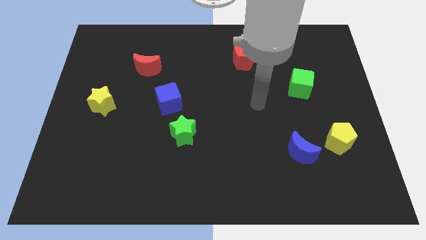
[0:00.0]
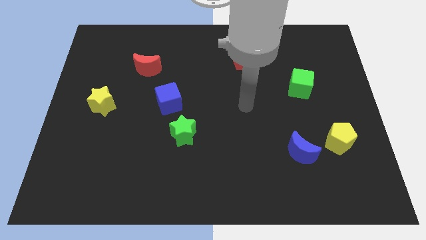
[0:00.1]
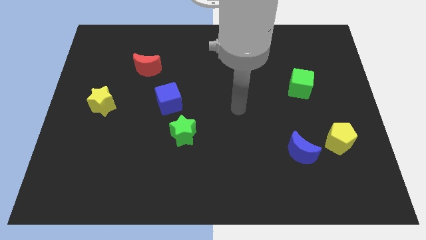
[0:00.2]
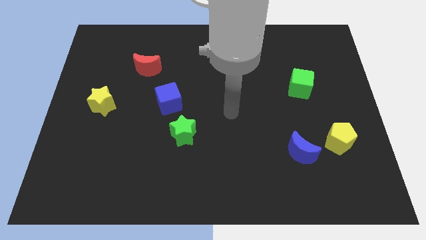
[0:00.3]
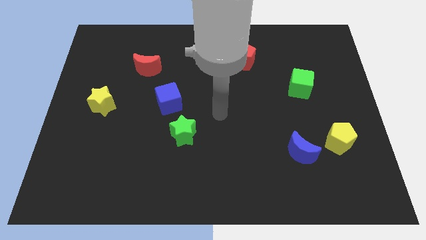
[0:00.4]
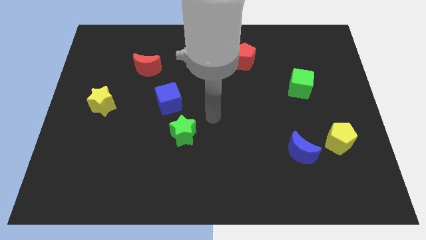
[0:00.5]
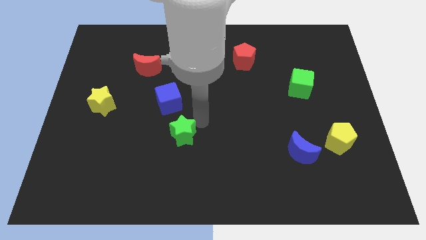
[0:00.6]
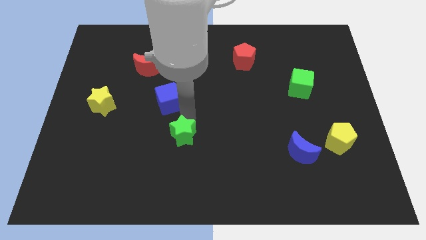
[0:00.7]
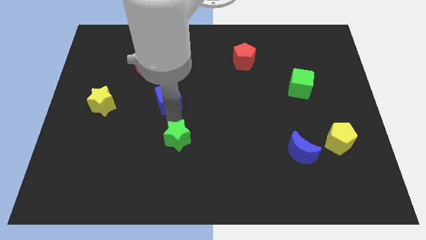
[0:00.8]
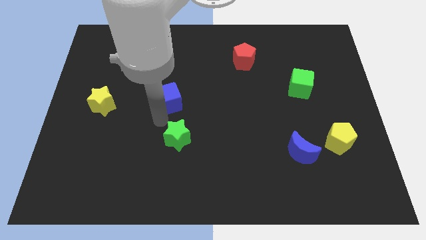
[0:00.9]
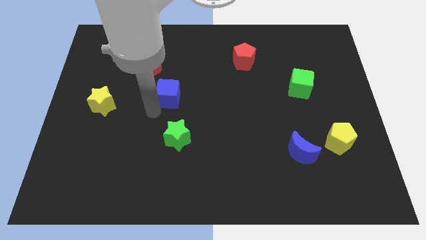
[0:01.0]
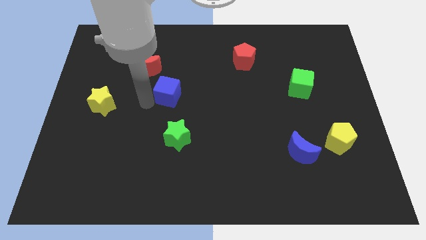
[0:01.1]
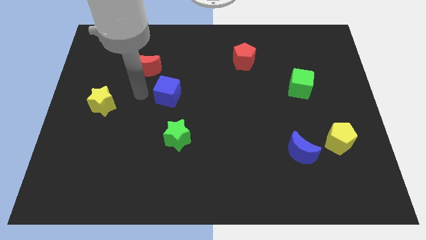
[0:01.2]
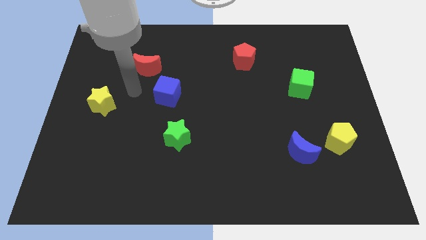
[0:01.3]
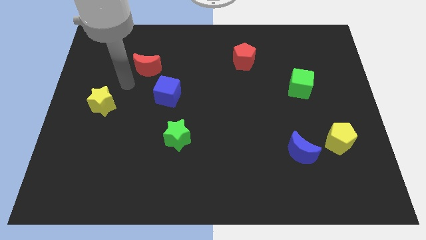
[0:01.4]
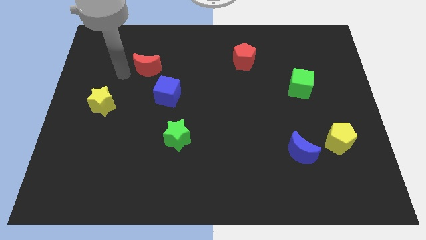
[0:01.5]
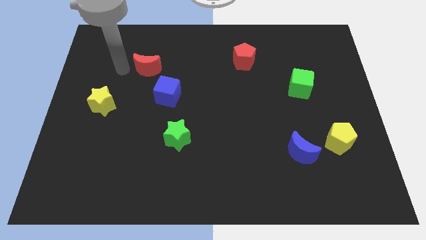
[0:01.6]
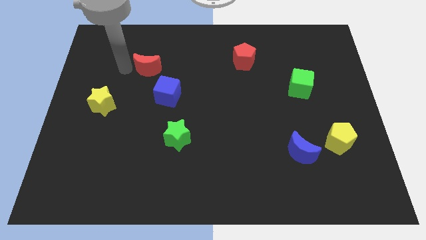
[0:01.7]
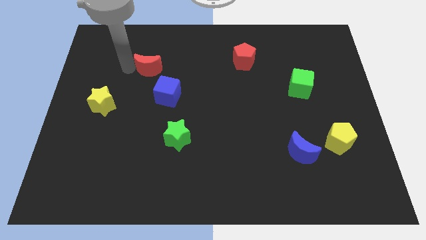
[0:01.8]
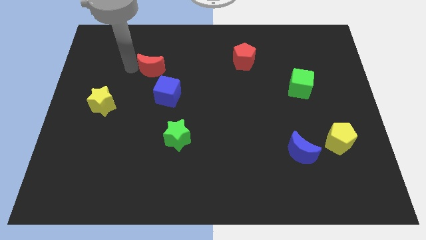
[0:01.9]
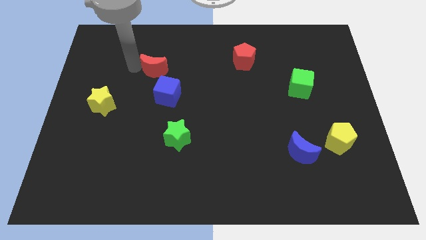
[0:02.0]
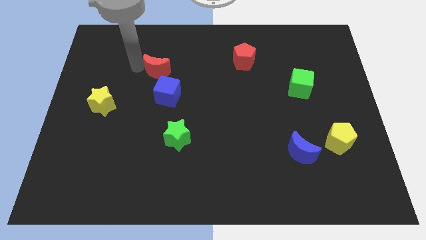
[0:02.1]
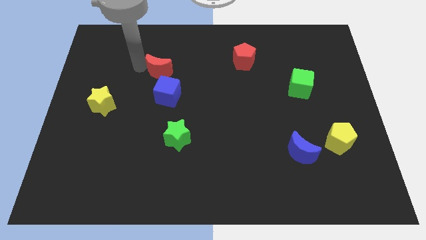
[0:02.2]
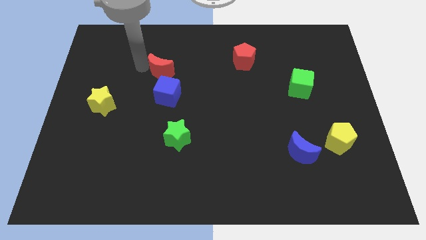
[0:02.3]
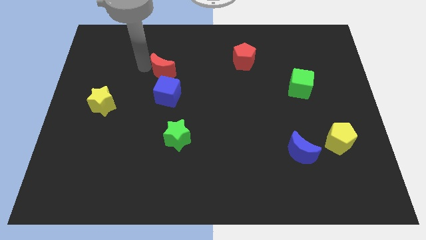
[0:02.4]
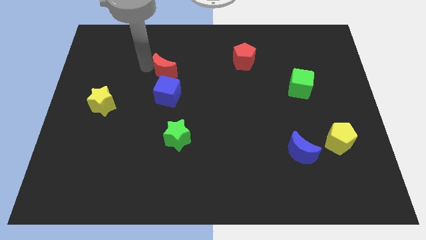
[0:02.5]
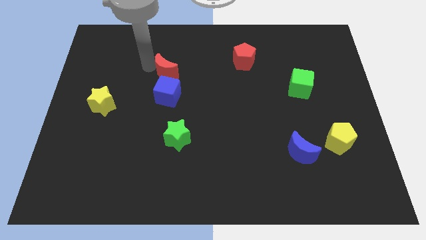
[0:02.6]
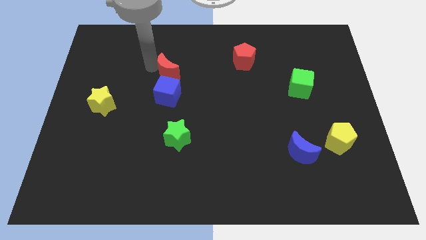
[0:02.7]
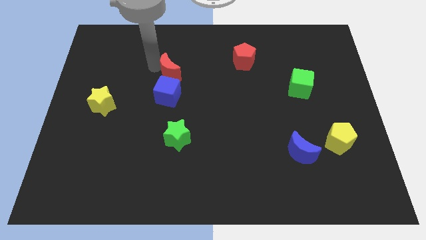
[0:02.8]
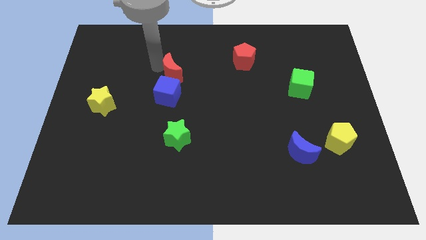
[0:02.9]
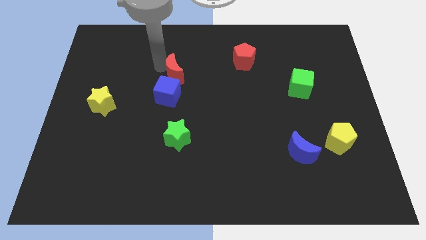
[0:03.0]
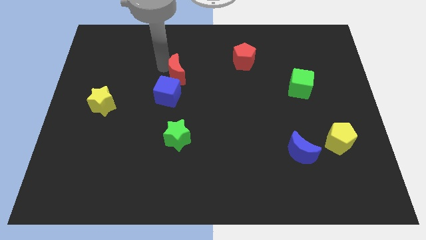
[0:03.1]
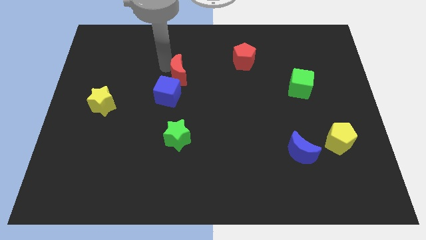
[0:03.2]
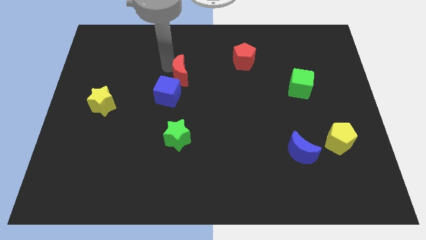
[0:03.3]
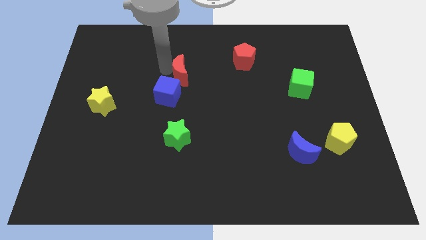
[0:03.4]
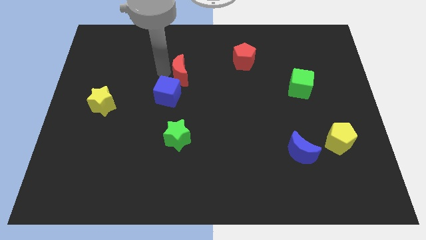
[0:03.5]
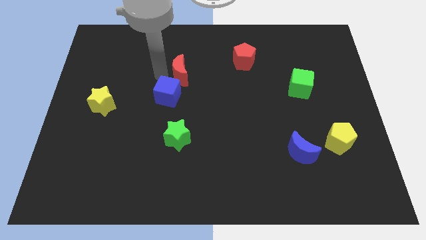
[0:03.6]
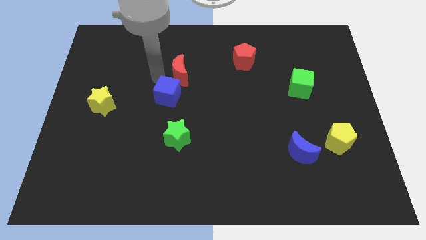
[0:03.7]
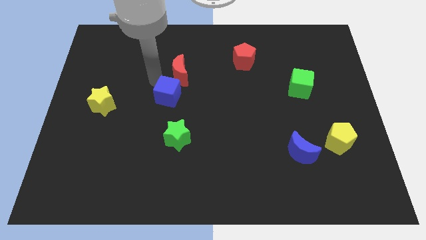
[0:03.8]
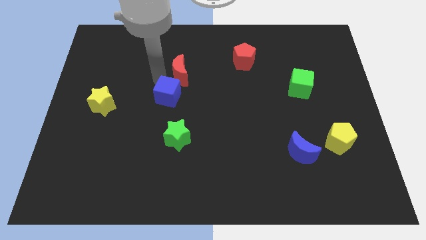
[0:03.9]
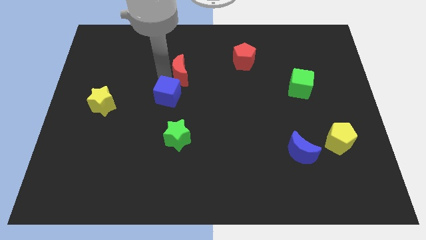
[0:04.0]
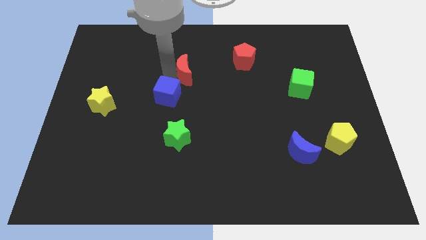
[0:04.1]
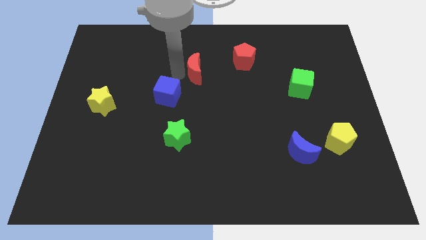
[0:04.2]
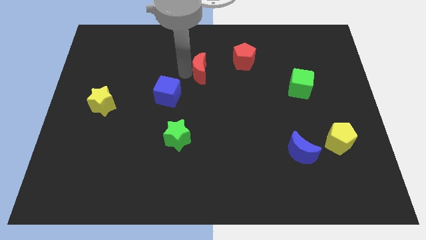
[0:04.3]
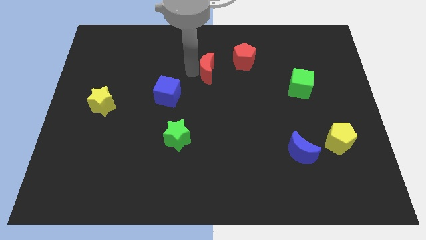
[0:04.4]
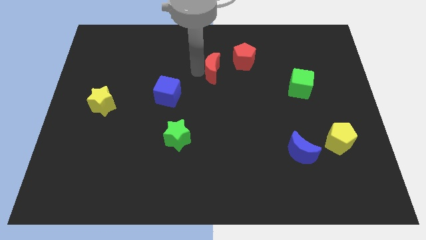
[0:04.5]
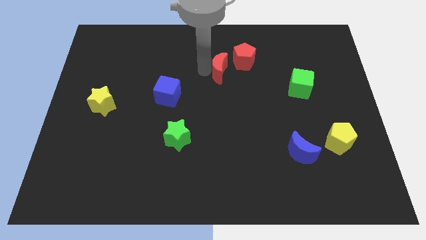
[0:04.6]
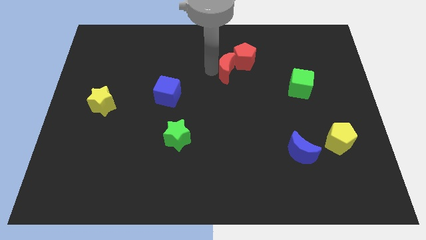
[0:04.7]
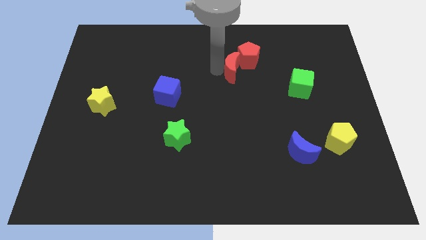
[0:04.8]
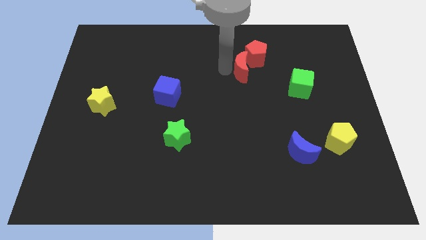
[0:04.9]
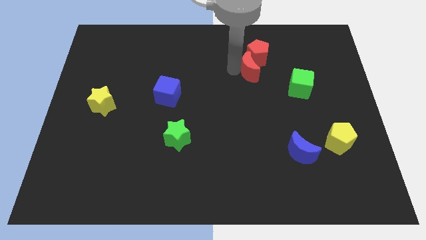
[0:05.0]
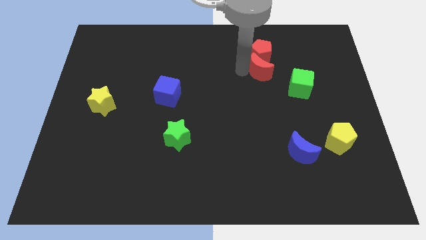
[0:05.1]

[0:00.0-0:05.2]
push the red moon to the bottom right side of the red pentagon

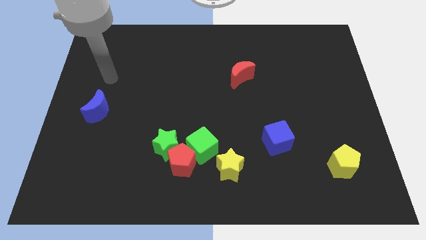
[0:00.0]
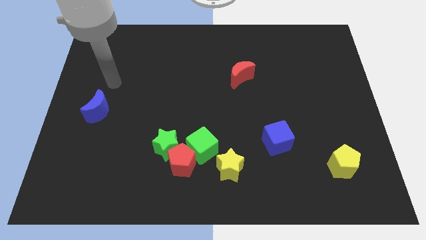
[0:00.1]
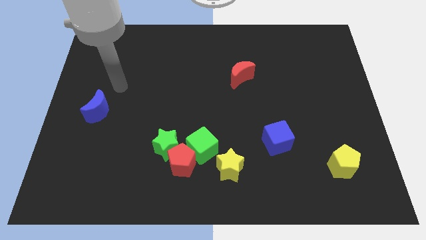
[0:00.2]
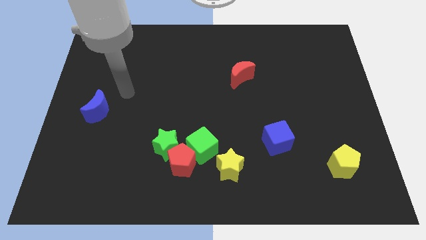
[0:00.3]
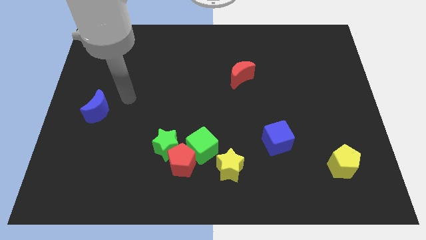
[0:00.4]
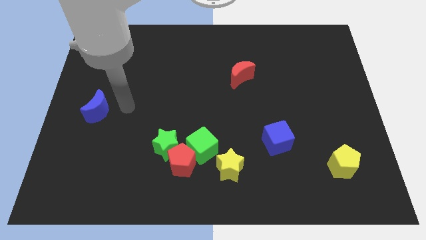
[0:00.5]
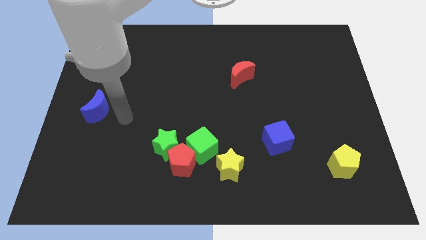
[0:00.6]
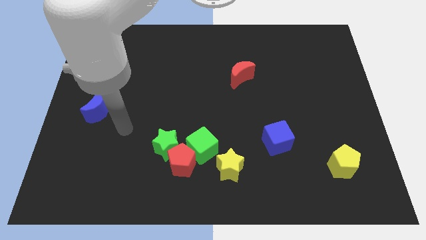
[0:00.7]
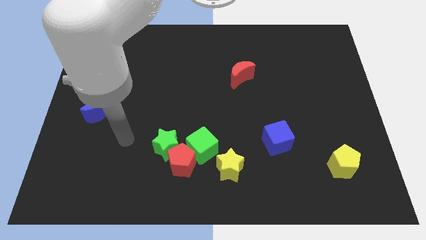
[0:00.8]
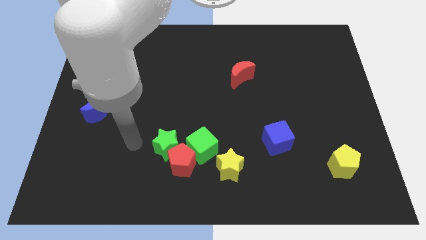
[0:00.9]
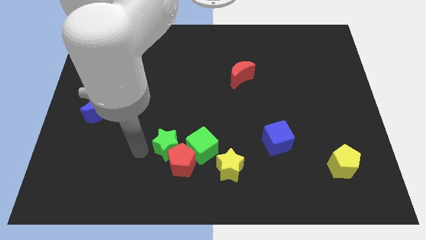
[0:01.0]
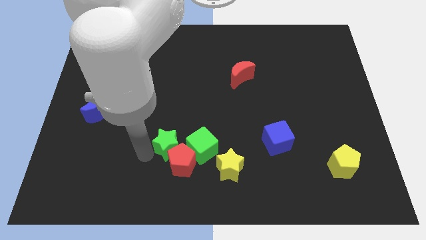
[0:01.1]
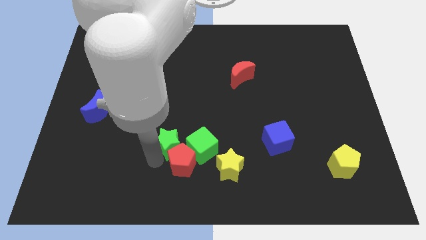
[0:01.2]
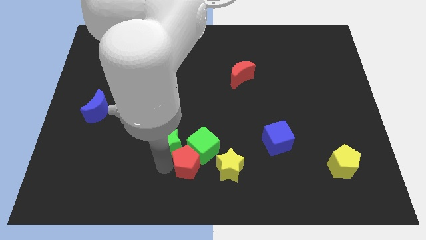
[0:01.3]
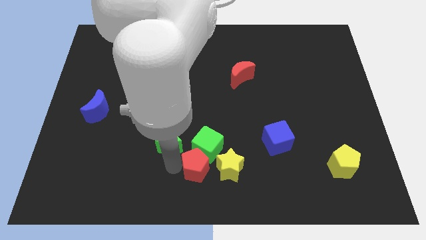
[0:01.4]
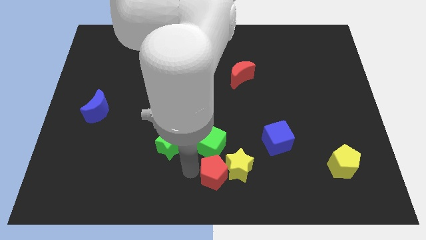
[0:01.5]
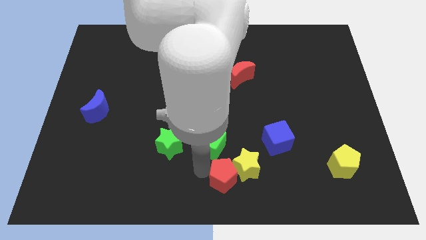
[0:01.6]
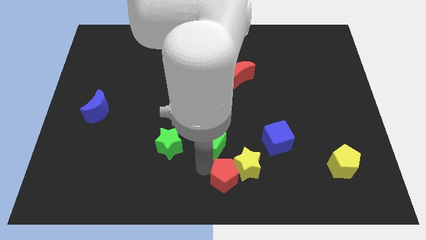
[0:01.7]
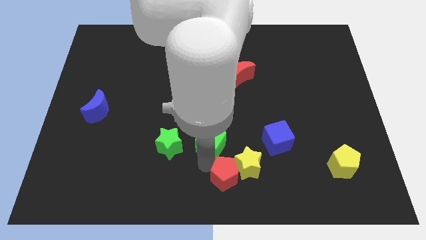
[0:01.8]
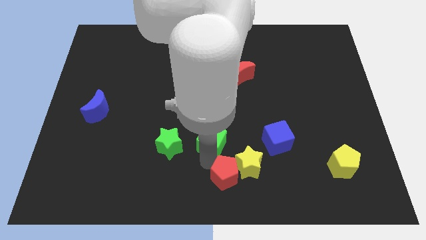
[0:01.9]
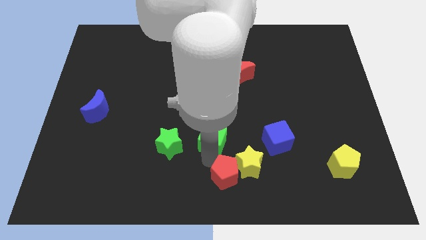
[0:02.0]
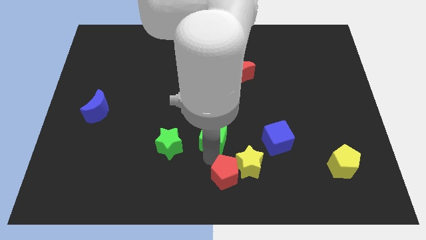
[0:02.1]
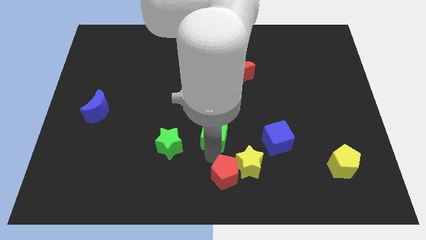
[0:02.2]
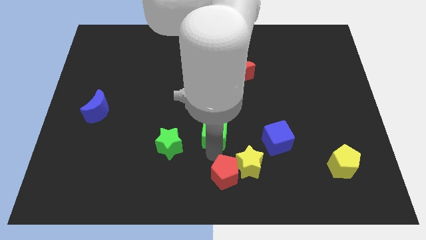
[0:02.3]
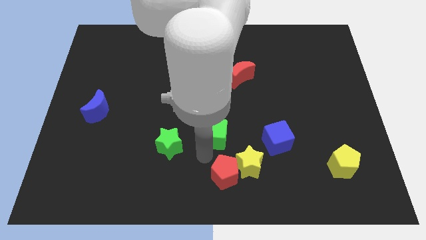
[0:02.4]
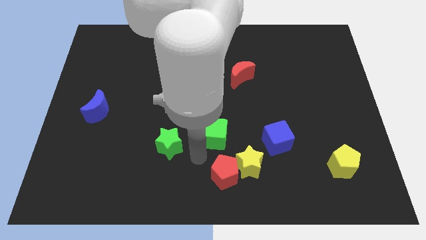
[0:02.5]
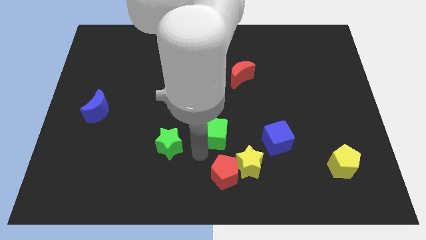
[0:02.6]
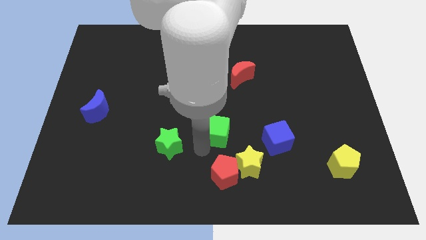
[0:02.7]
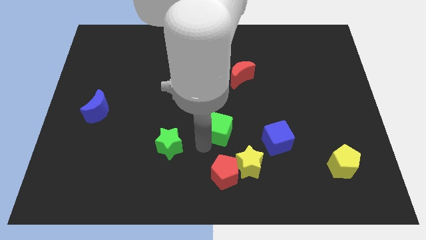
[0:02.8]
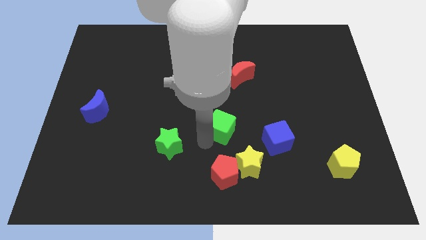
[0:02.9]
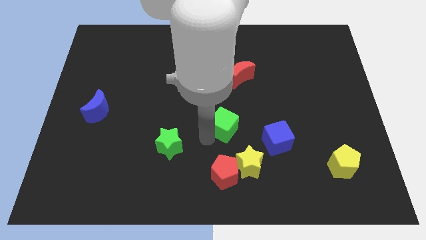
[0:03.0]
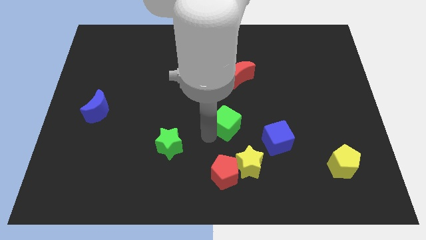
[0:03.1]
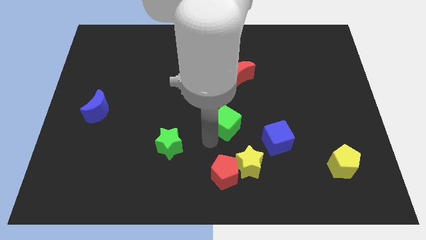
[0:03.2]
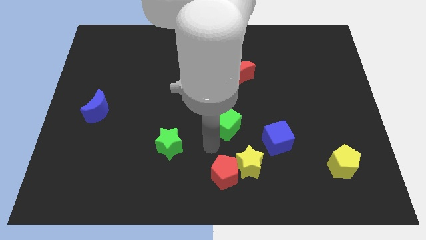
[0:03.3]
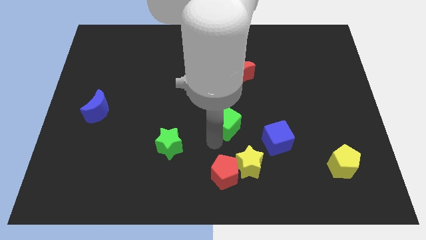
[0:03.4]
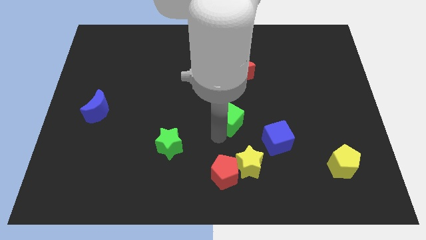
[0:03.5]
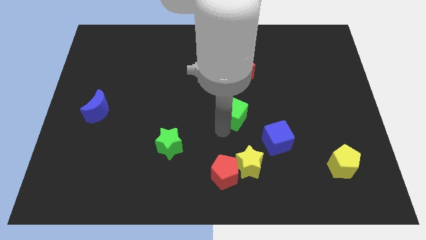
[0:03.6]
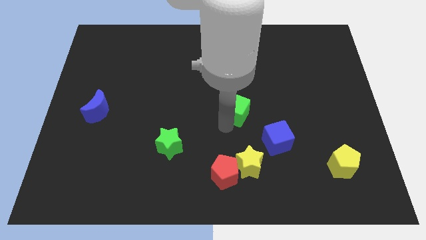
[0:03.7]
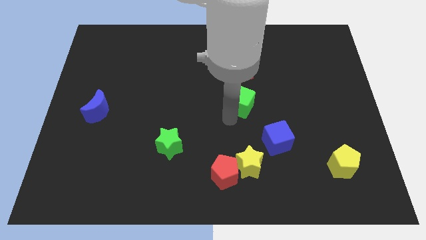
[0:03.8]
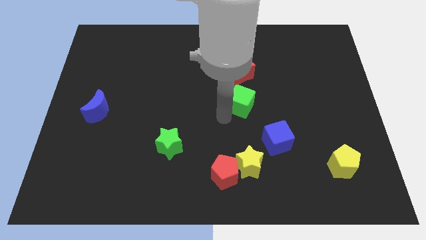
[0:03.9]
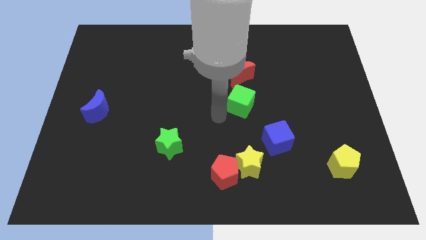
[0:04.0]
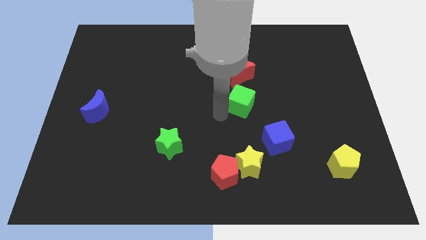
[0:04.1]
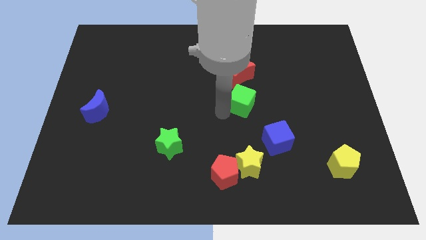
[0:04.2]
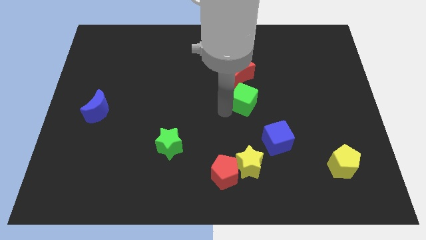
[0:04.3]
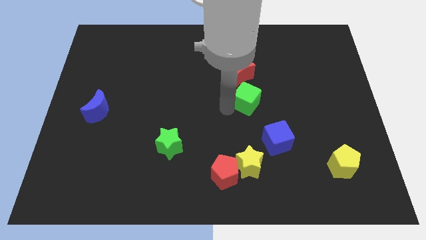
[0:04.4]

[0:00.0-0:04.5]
slide the green cube diagonally down and to the right of the red moon
